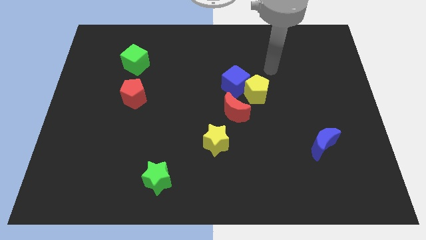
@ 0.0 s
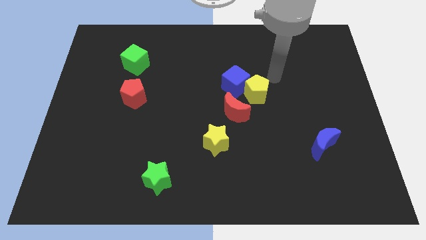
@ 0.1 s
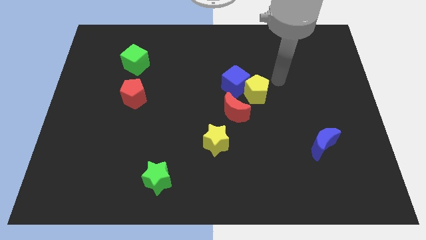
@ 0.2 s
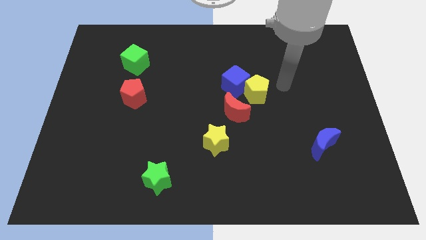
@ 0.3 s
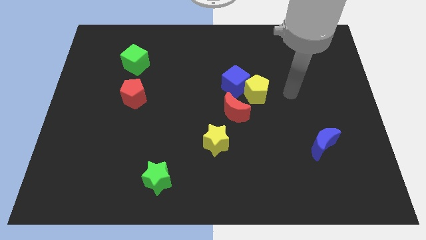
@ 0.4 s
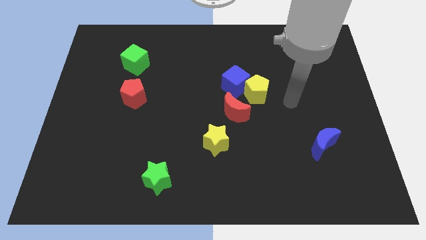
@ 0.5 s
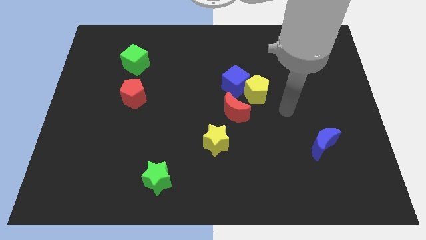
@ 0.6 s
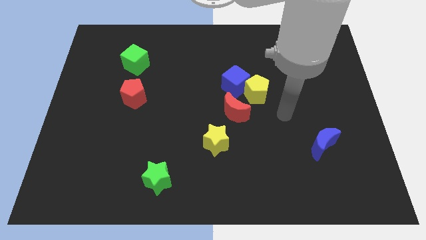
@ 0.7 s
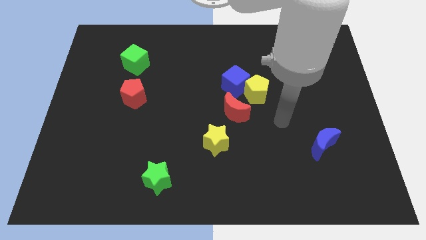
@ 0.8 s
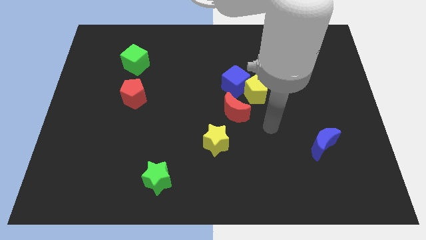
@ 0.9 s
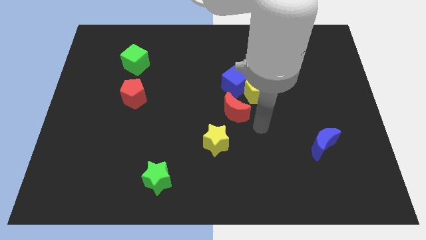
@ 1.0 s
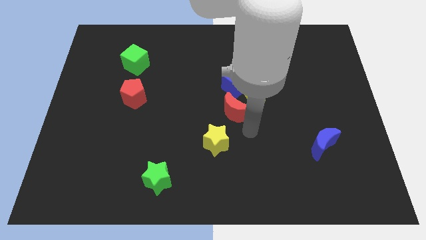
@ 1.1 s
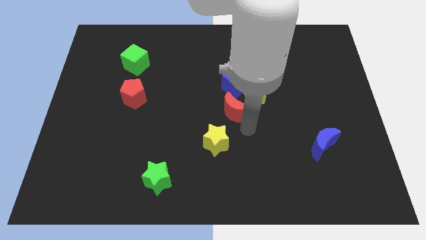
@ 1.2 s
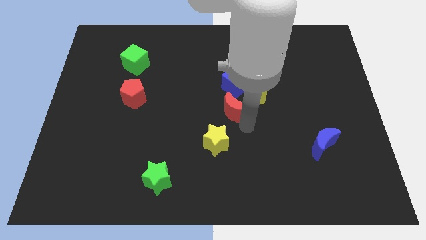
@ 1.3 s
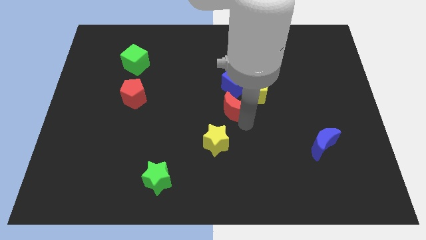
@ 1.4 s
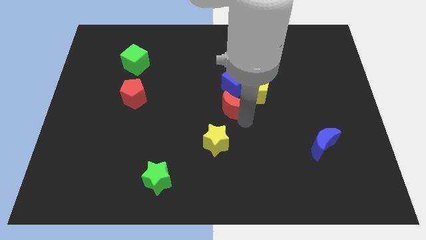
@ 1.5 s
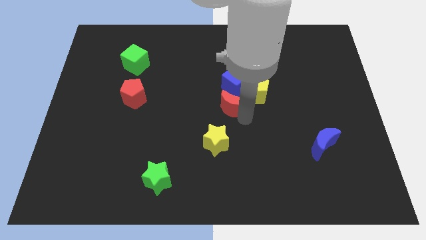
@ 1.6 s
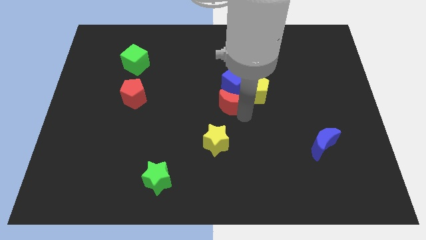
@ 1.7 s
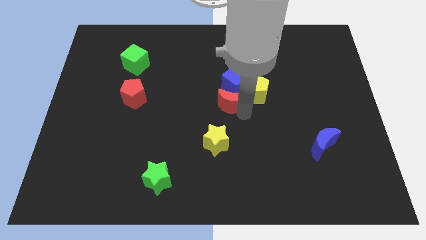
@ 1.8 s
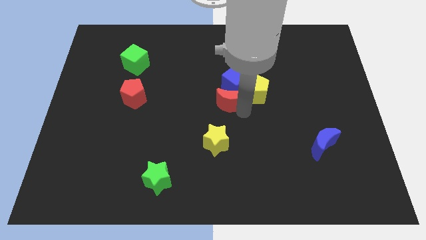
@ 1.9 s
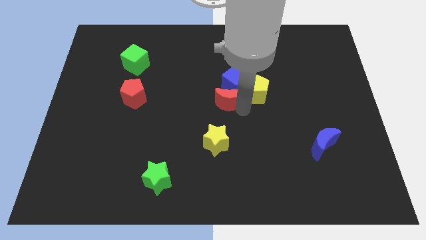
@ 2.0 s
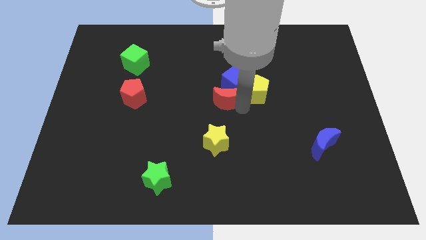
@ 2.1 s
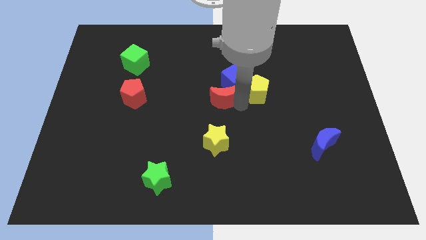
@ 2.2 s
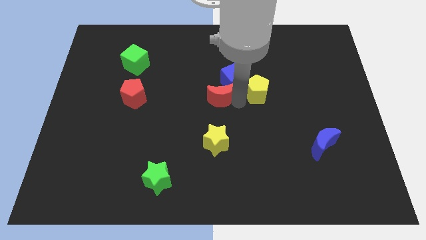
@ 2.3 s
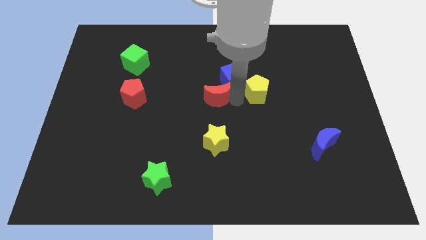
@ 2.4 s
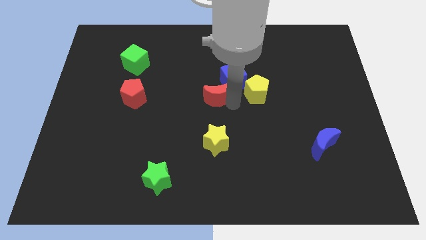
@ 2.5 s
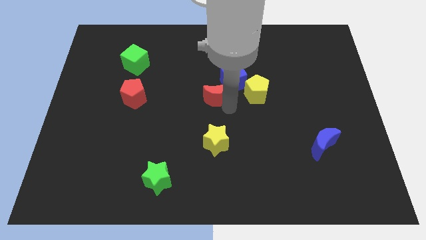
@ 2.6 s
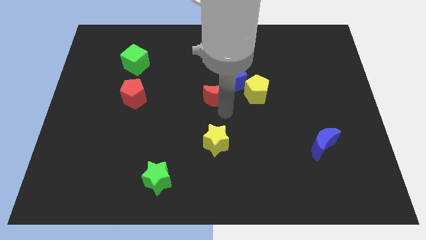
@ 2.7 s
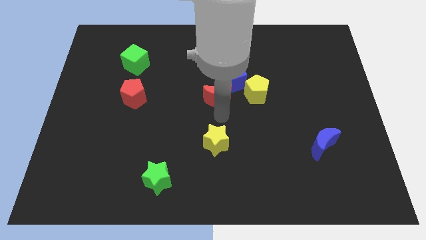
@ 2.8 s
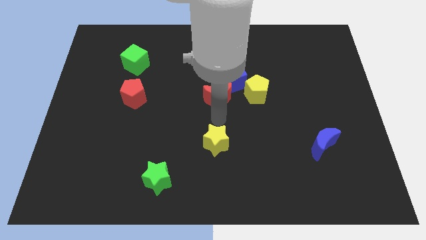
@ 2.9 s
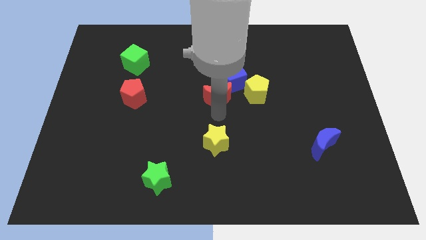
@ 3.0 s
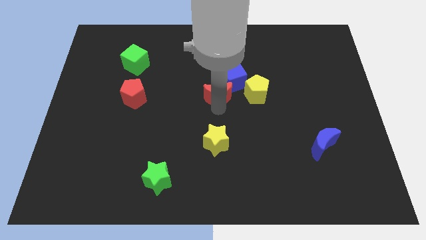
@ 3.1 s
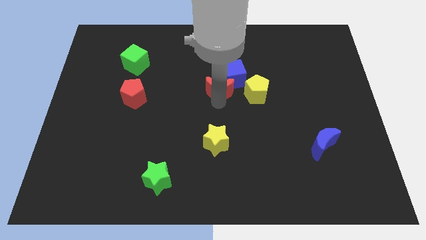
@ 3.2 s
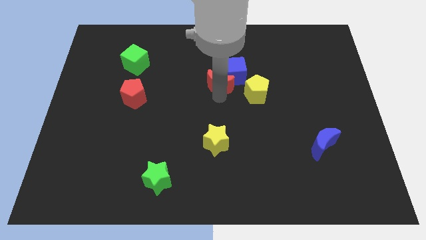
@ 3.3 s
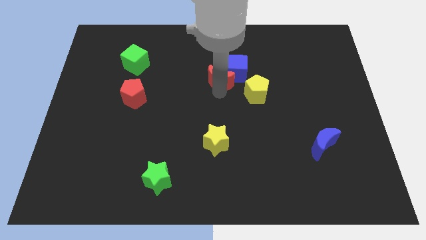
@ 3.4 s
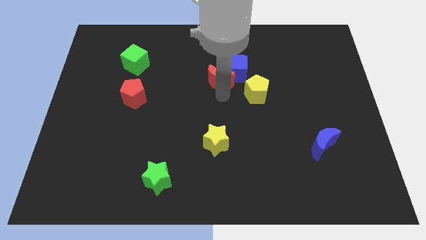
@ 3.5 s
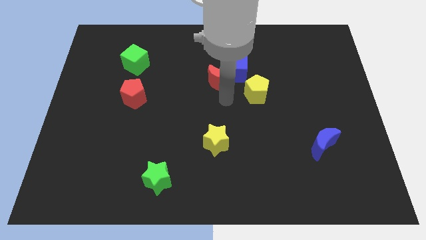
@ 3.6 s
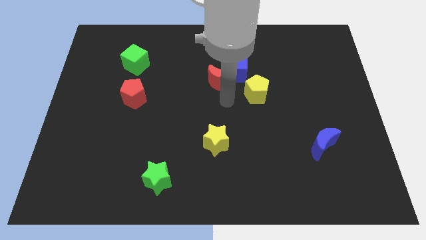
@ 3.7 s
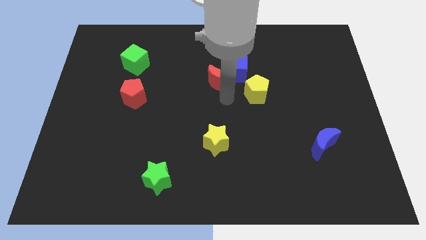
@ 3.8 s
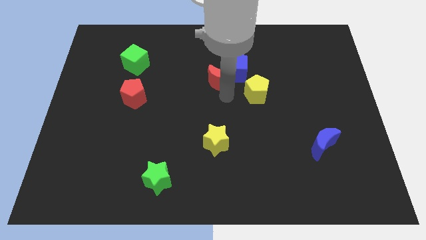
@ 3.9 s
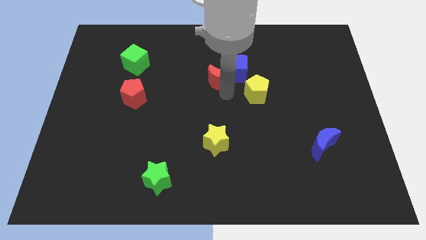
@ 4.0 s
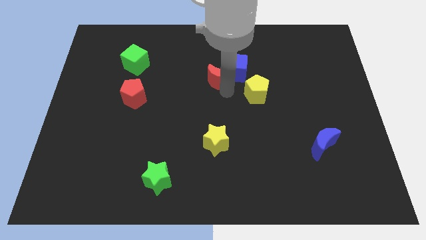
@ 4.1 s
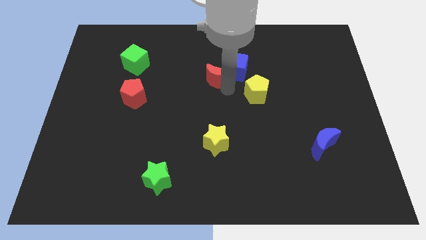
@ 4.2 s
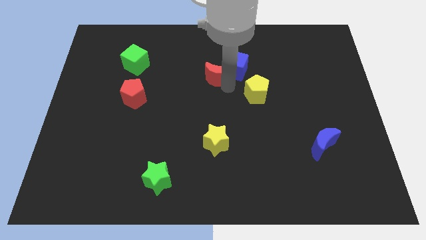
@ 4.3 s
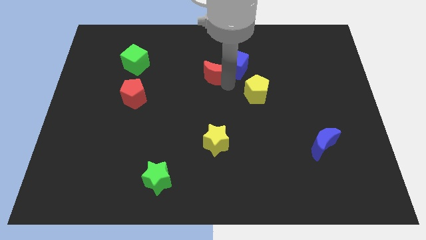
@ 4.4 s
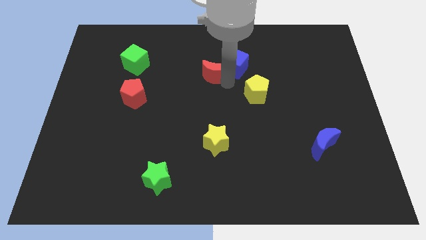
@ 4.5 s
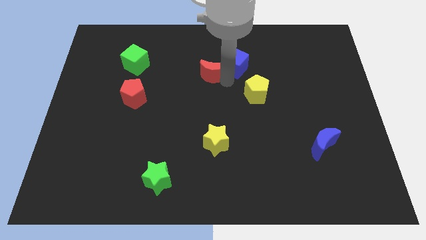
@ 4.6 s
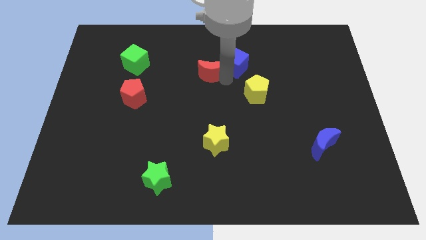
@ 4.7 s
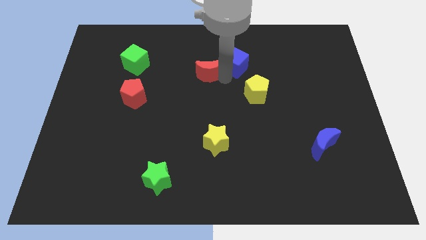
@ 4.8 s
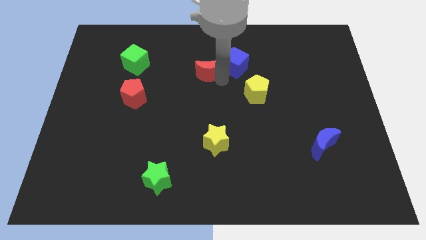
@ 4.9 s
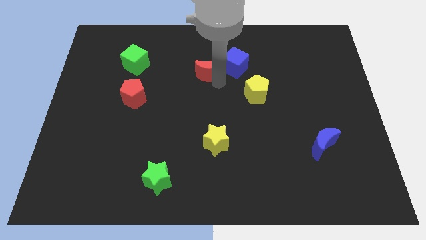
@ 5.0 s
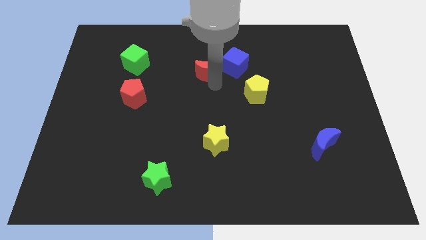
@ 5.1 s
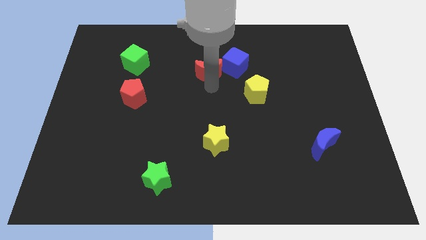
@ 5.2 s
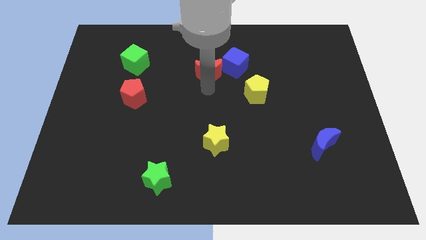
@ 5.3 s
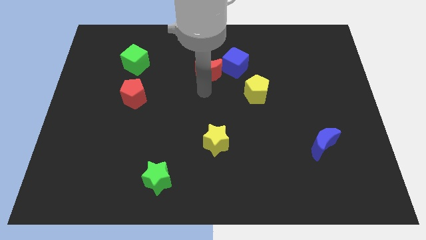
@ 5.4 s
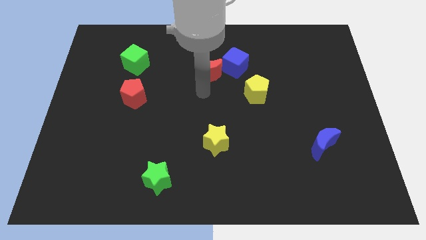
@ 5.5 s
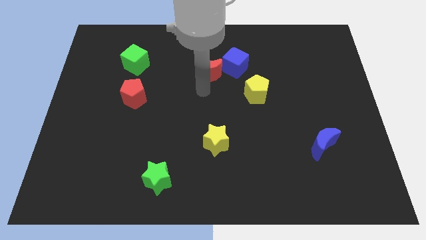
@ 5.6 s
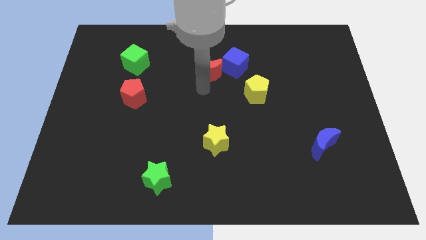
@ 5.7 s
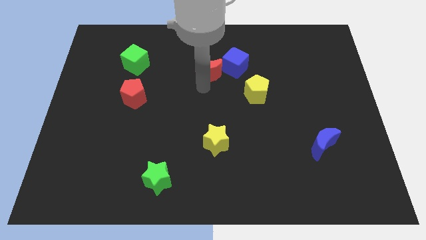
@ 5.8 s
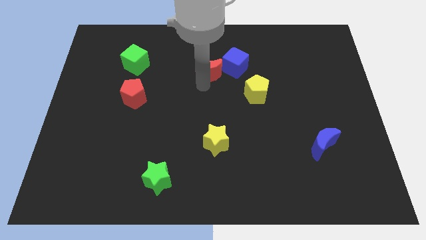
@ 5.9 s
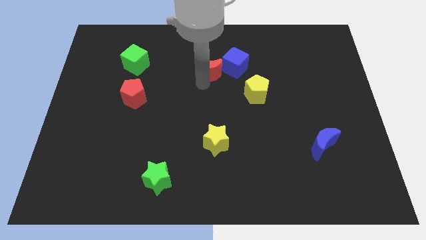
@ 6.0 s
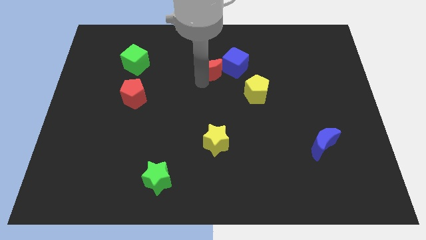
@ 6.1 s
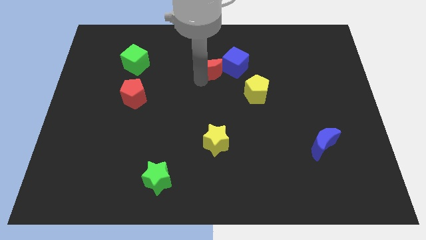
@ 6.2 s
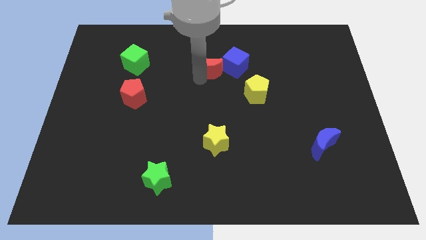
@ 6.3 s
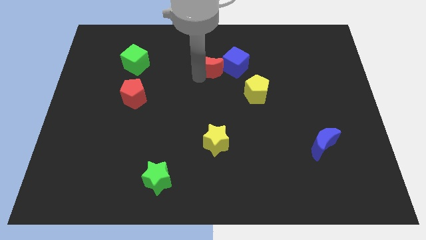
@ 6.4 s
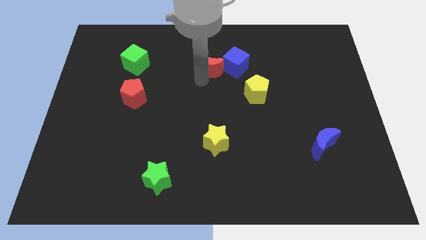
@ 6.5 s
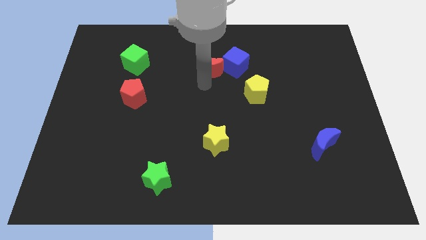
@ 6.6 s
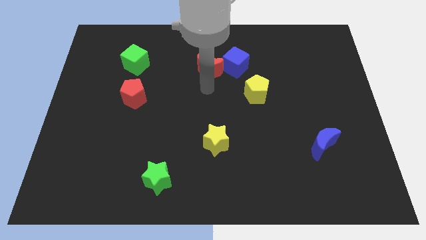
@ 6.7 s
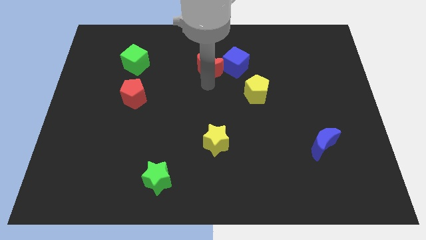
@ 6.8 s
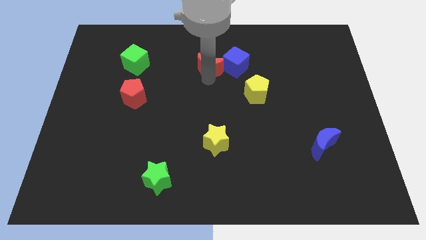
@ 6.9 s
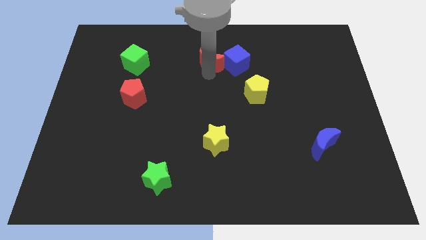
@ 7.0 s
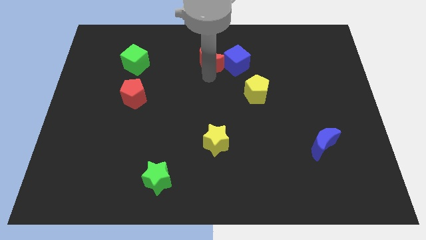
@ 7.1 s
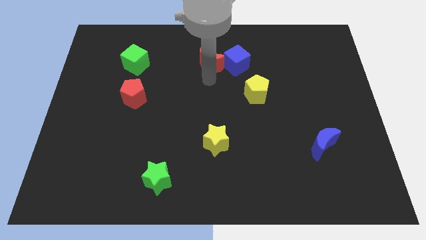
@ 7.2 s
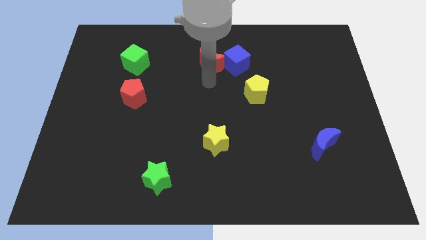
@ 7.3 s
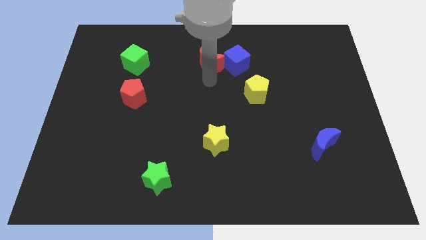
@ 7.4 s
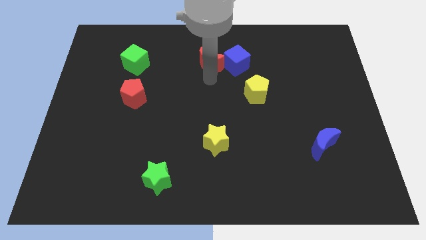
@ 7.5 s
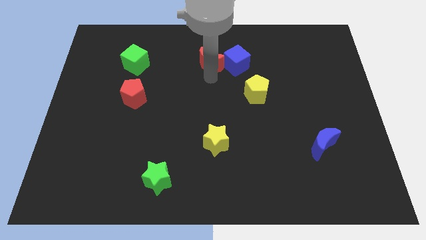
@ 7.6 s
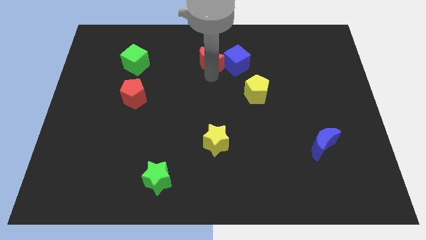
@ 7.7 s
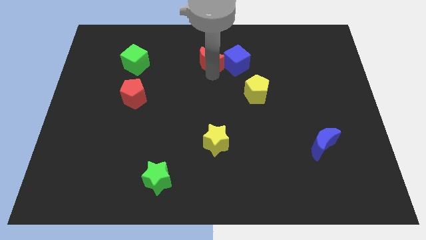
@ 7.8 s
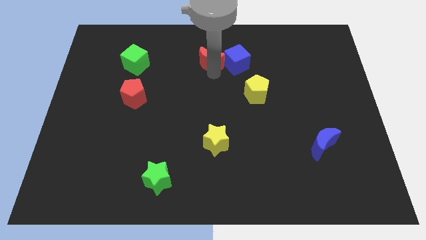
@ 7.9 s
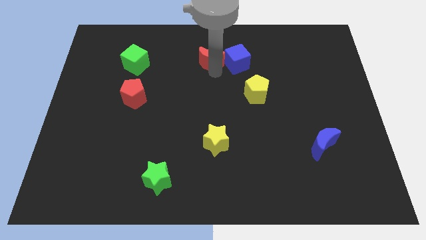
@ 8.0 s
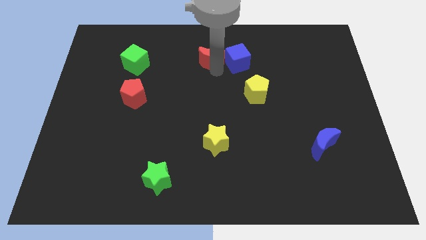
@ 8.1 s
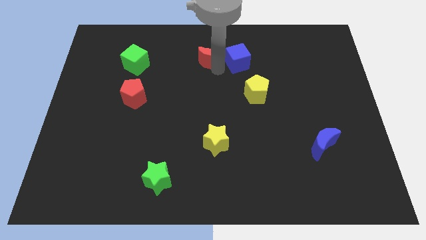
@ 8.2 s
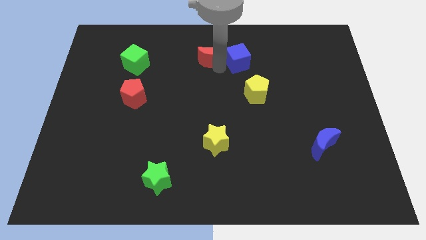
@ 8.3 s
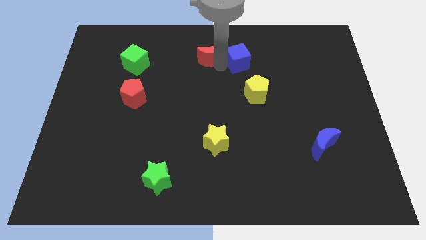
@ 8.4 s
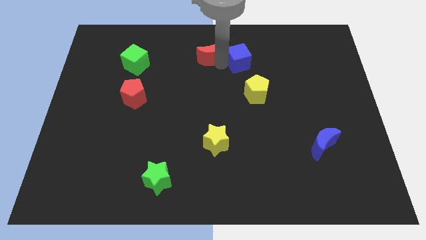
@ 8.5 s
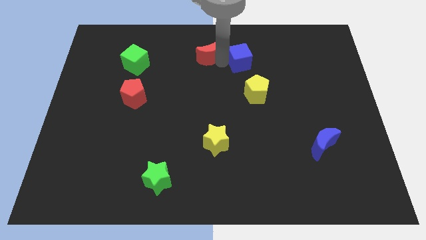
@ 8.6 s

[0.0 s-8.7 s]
move the red moon to the top
